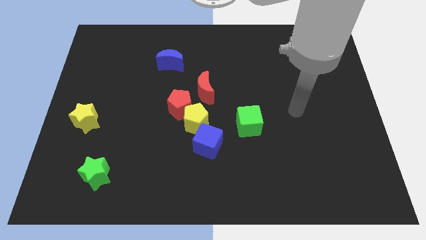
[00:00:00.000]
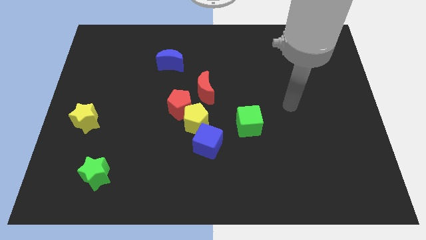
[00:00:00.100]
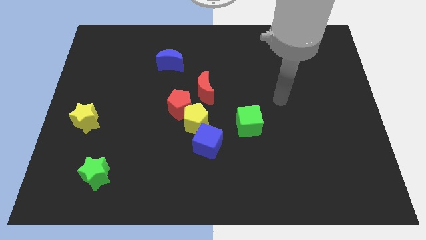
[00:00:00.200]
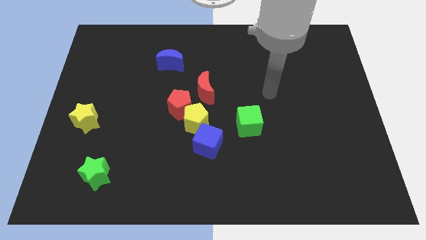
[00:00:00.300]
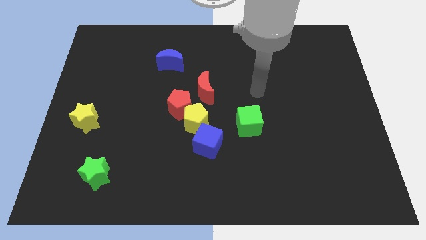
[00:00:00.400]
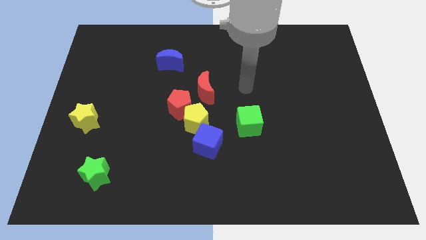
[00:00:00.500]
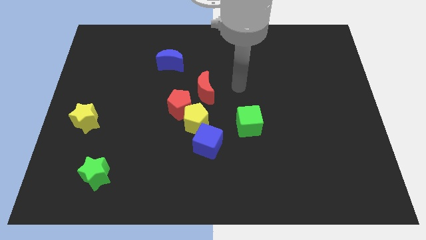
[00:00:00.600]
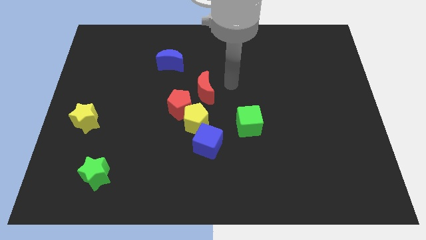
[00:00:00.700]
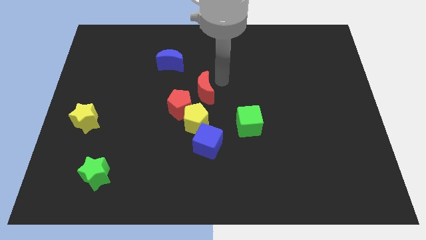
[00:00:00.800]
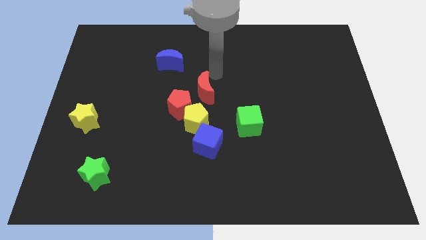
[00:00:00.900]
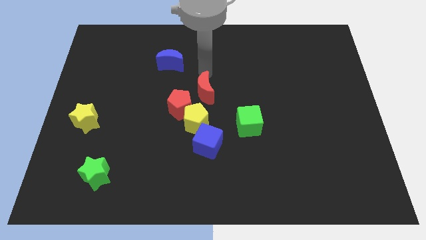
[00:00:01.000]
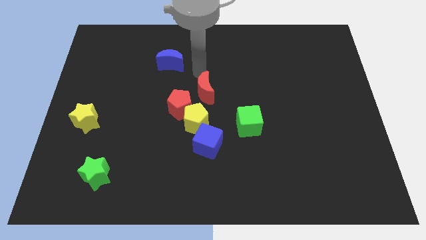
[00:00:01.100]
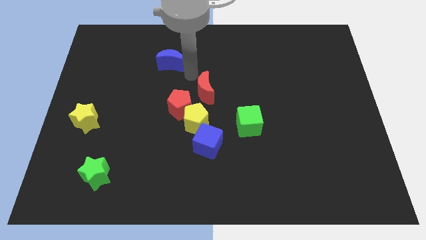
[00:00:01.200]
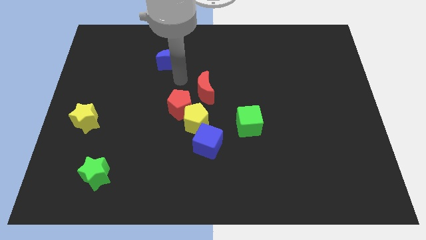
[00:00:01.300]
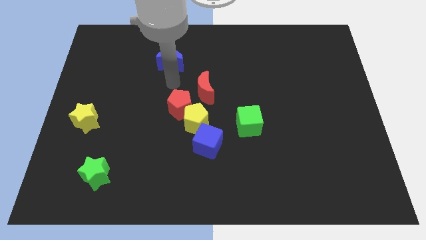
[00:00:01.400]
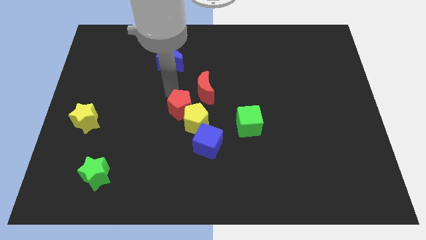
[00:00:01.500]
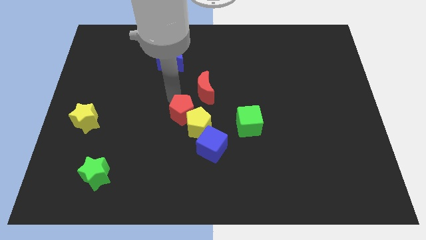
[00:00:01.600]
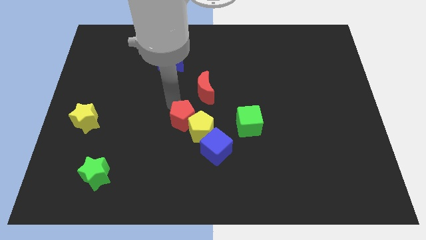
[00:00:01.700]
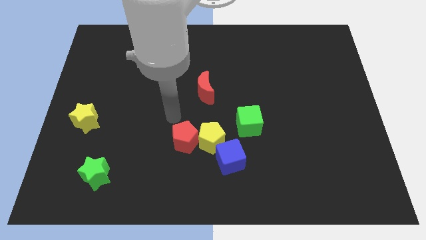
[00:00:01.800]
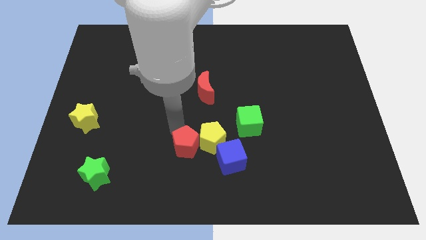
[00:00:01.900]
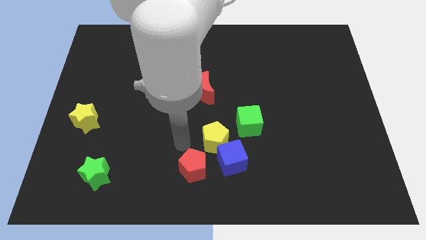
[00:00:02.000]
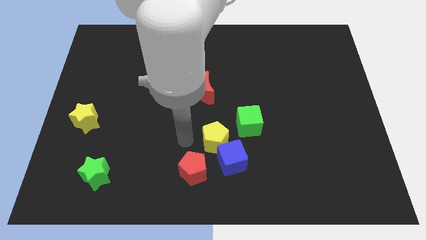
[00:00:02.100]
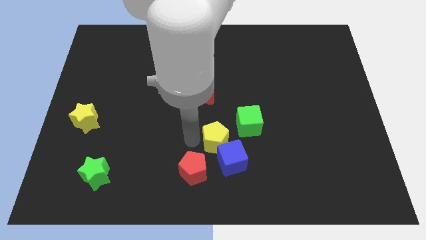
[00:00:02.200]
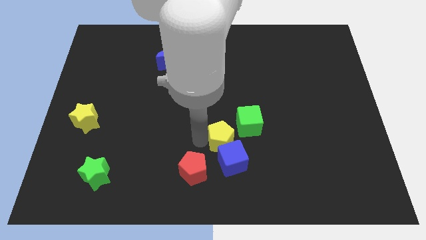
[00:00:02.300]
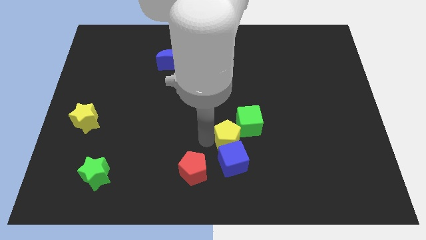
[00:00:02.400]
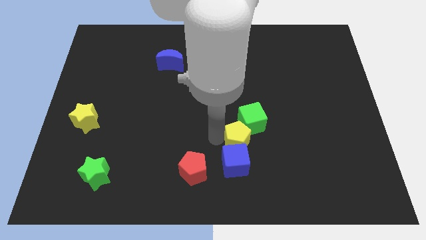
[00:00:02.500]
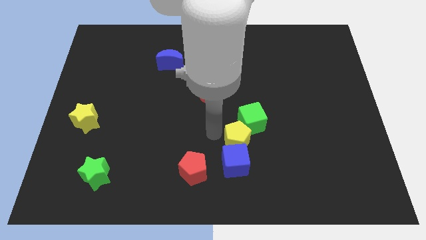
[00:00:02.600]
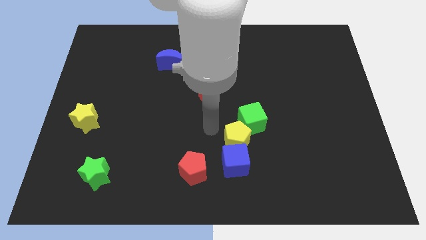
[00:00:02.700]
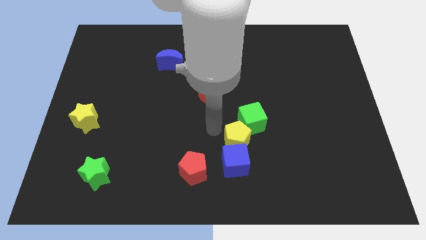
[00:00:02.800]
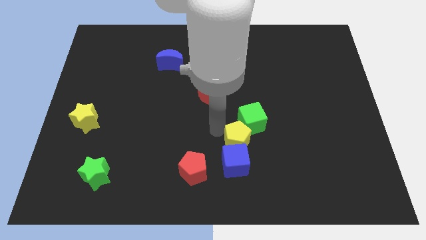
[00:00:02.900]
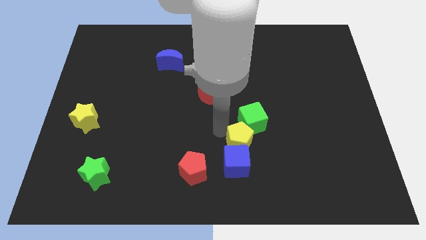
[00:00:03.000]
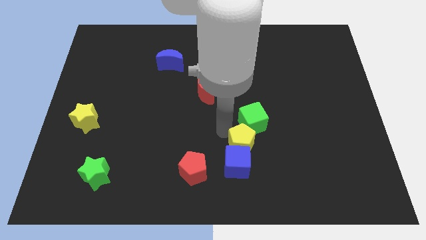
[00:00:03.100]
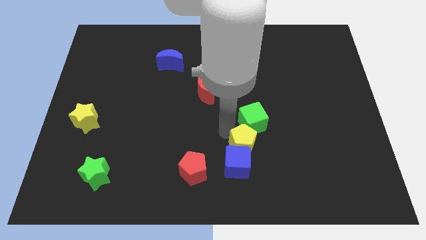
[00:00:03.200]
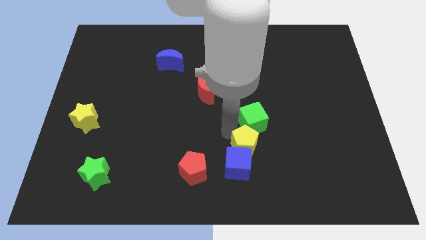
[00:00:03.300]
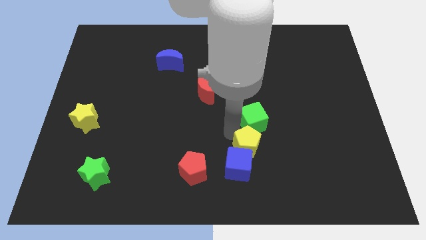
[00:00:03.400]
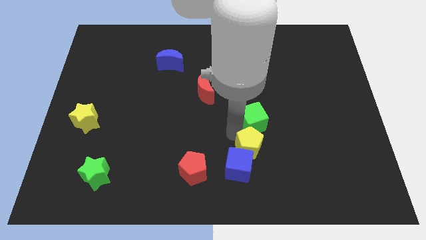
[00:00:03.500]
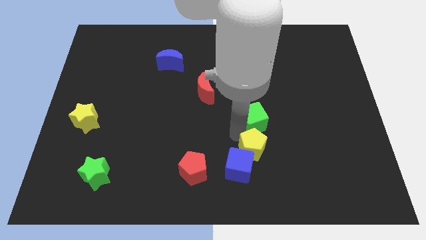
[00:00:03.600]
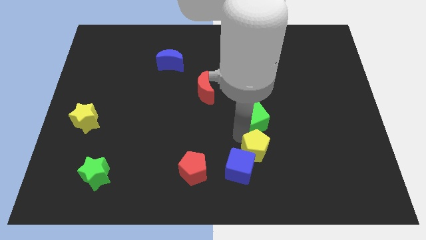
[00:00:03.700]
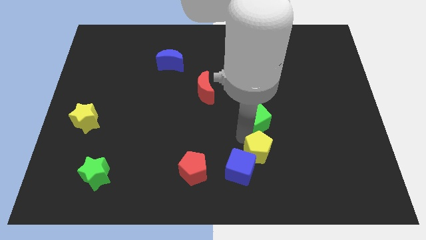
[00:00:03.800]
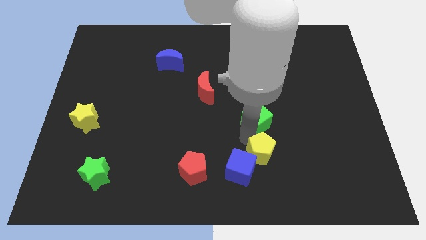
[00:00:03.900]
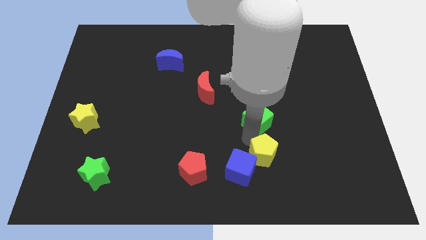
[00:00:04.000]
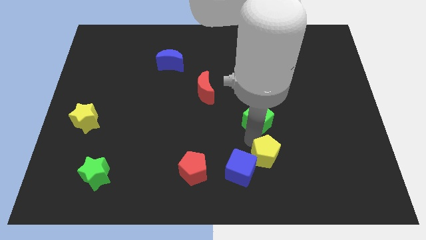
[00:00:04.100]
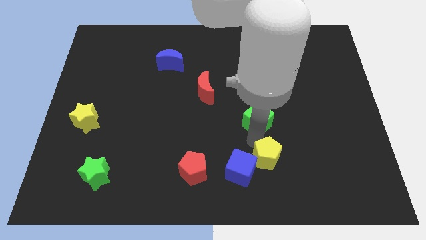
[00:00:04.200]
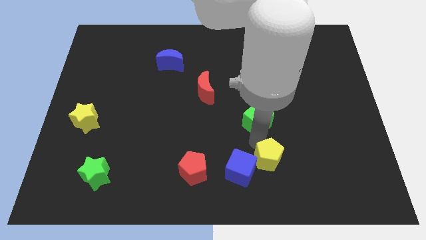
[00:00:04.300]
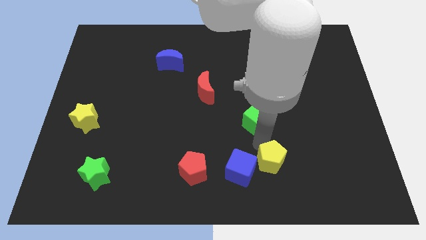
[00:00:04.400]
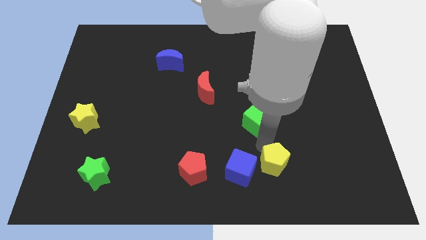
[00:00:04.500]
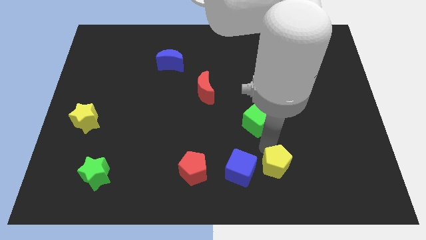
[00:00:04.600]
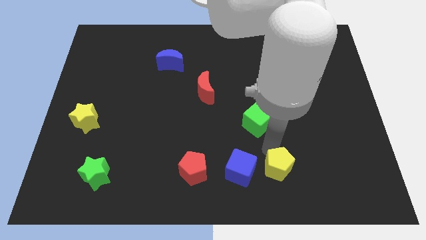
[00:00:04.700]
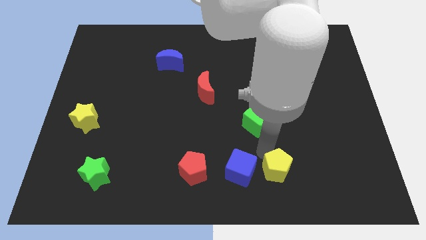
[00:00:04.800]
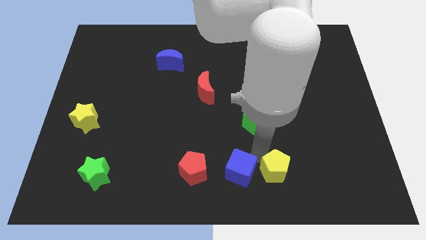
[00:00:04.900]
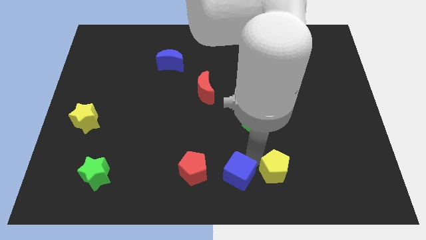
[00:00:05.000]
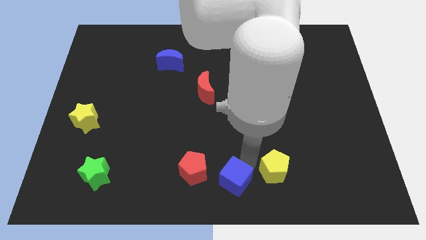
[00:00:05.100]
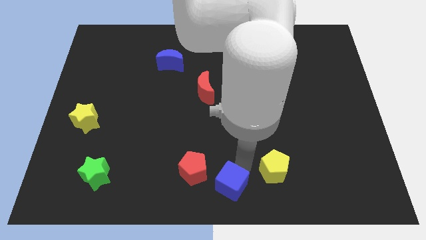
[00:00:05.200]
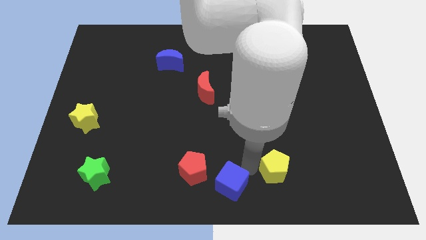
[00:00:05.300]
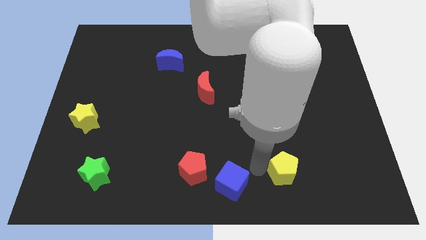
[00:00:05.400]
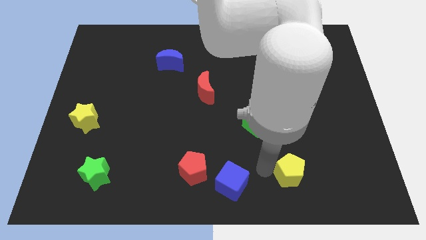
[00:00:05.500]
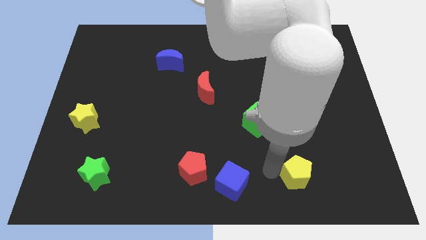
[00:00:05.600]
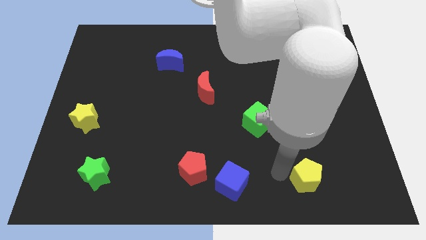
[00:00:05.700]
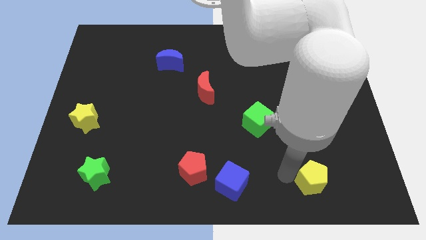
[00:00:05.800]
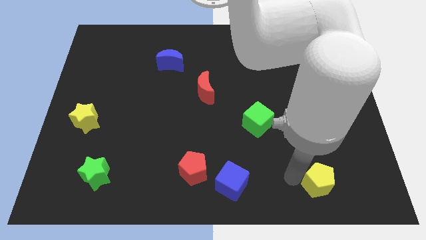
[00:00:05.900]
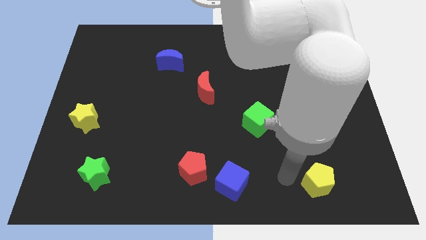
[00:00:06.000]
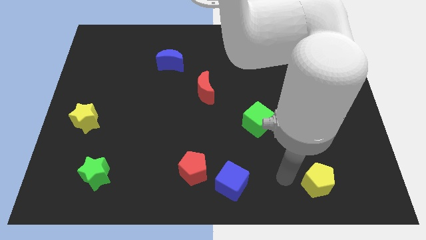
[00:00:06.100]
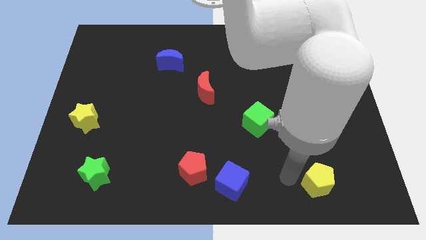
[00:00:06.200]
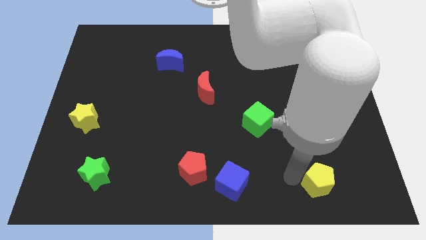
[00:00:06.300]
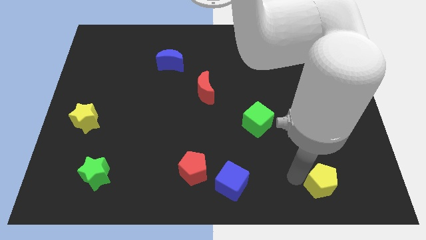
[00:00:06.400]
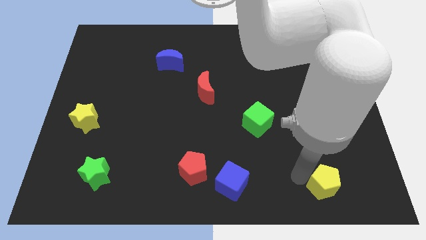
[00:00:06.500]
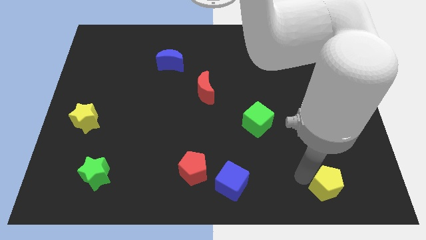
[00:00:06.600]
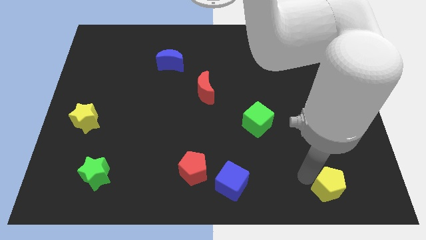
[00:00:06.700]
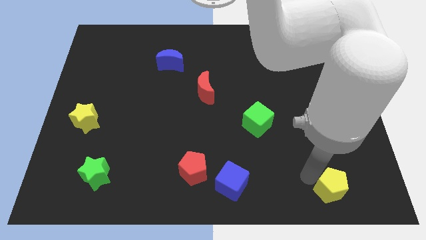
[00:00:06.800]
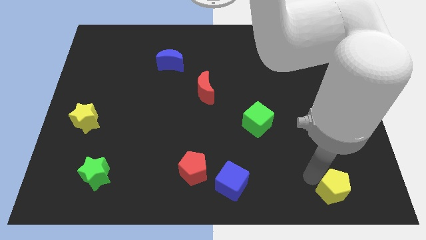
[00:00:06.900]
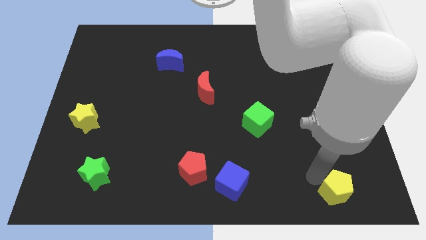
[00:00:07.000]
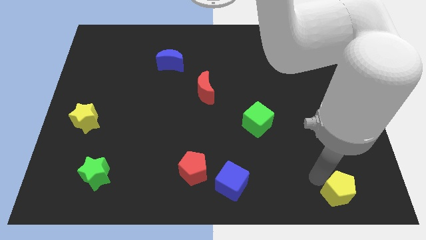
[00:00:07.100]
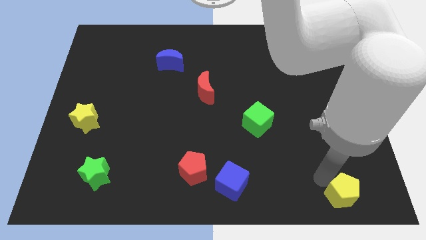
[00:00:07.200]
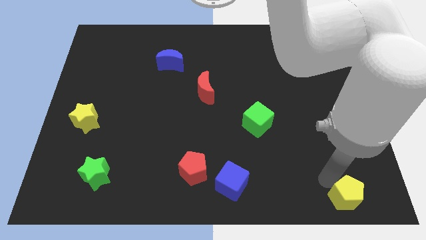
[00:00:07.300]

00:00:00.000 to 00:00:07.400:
slide the yellow pentagon to the lower right corner
